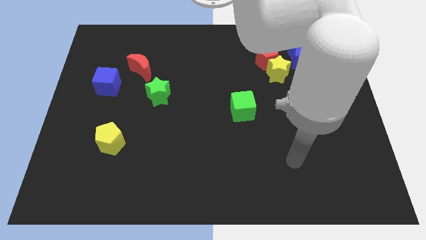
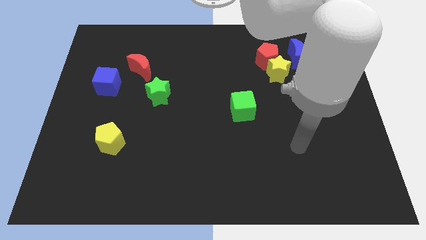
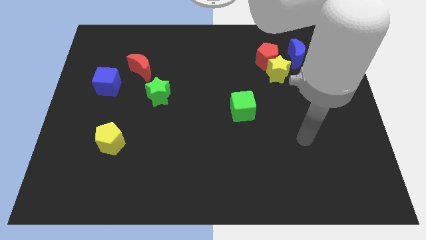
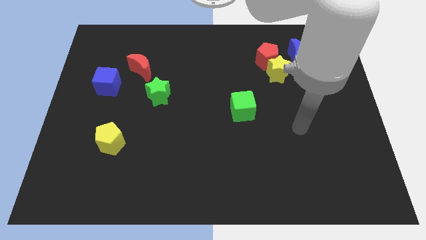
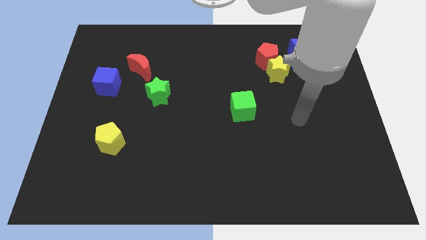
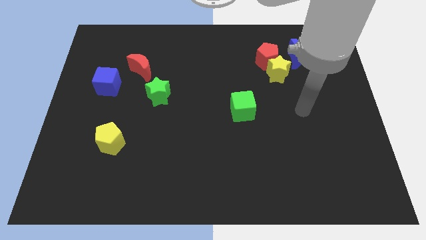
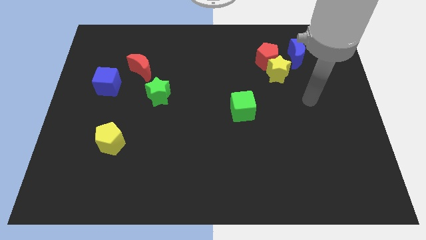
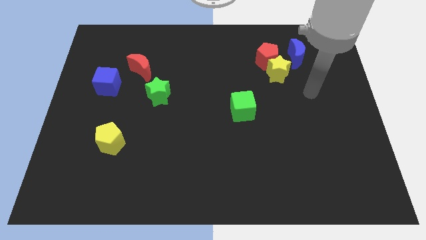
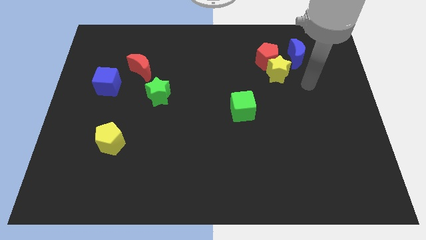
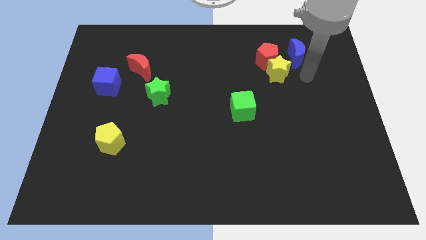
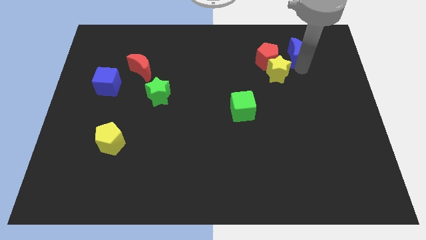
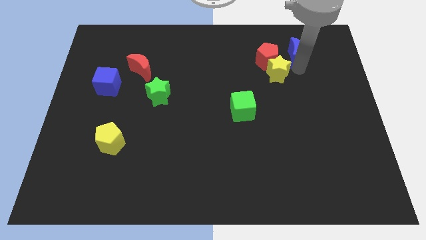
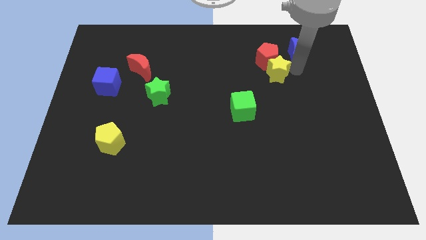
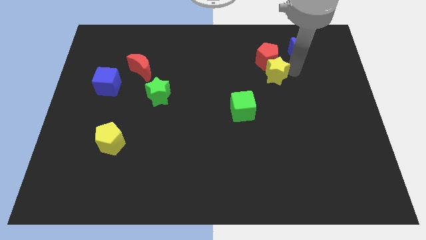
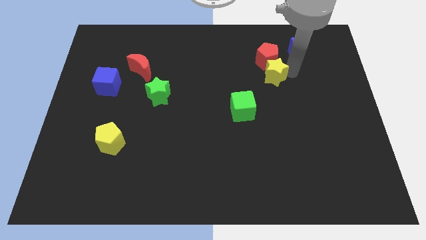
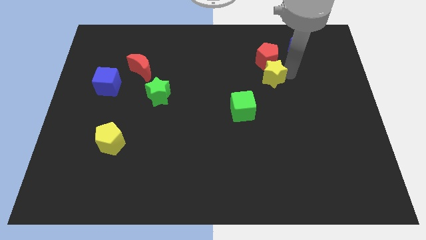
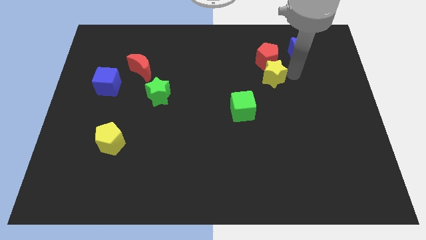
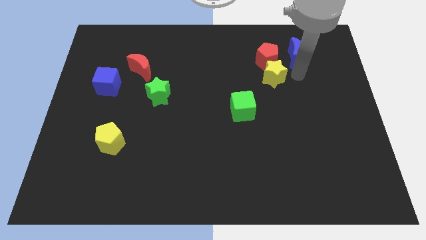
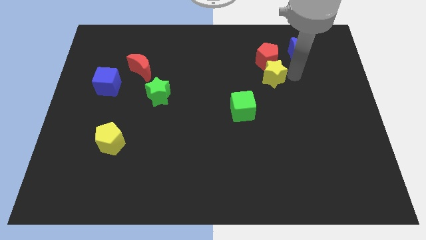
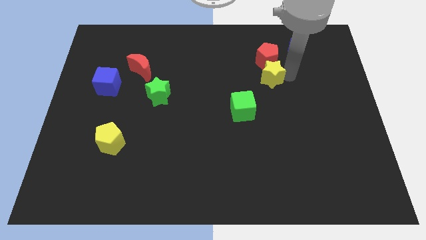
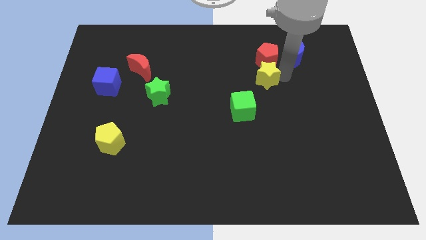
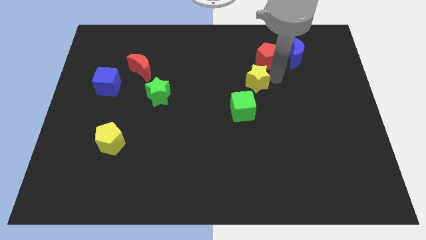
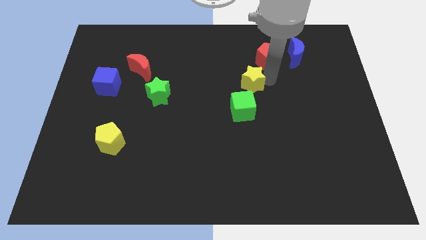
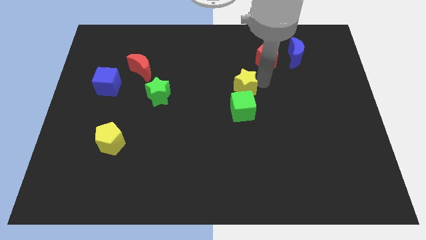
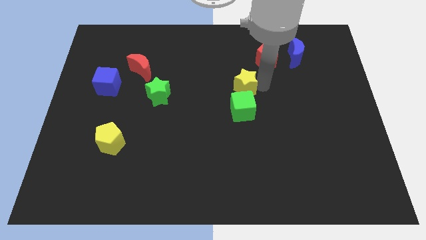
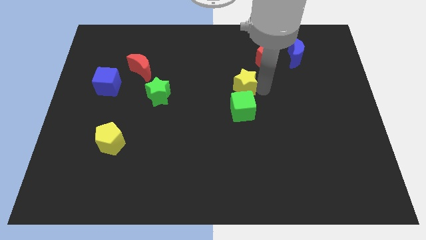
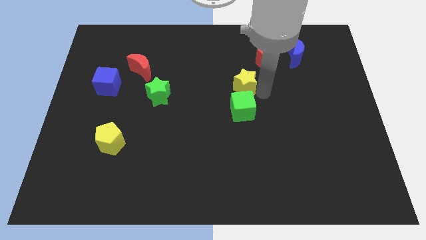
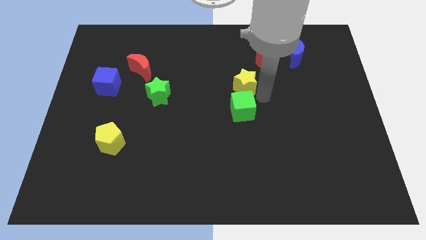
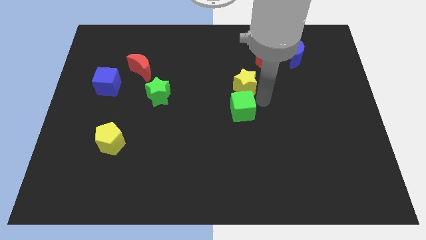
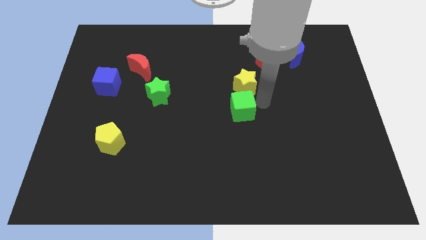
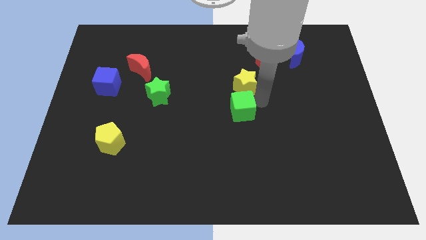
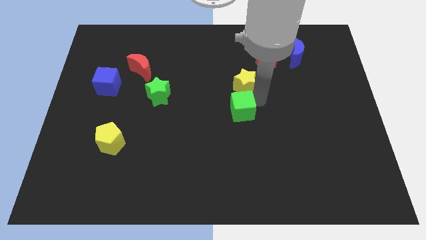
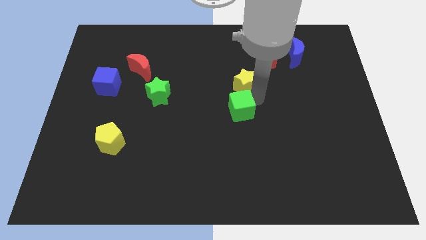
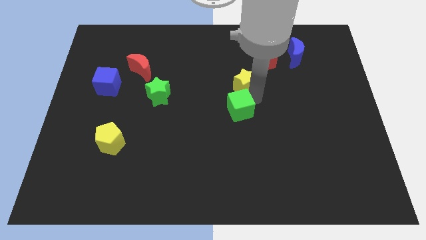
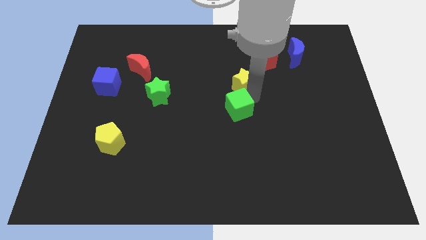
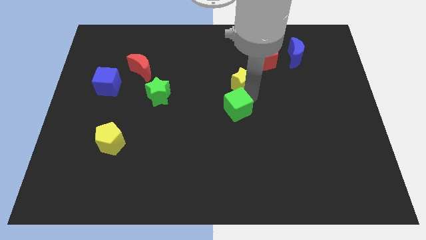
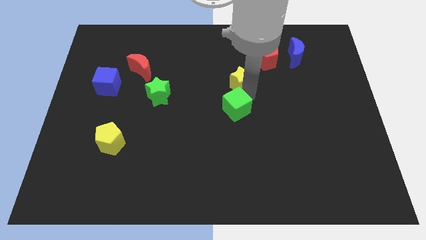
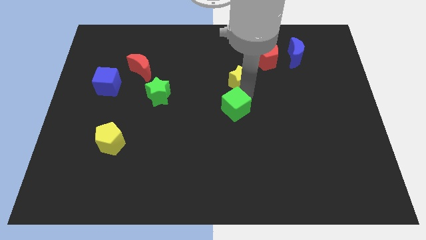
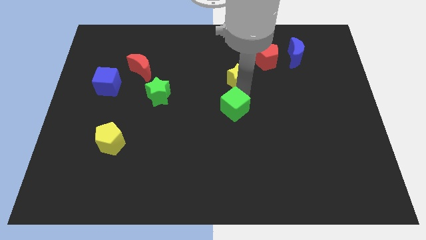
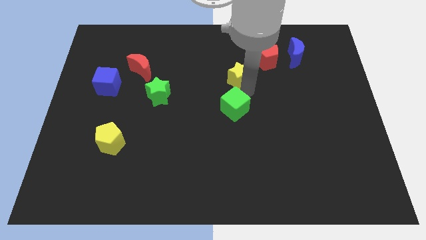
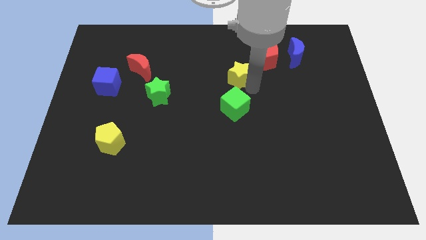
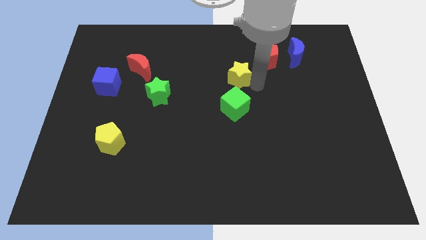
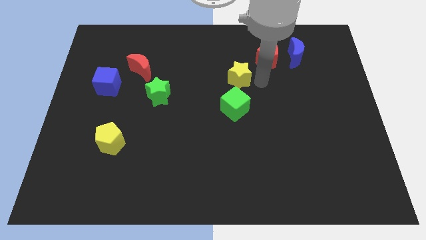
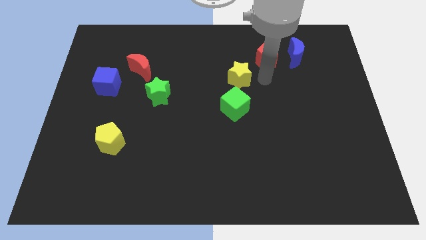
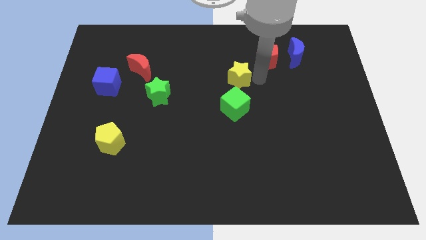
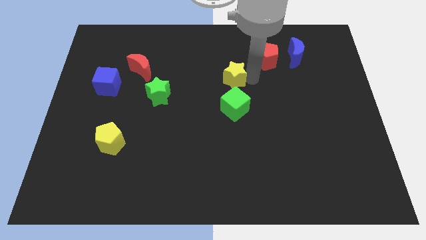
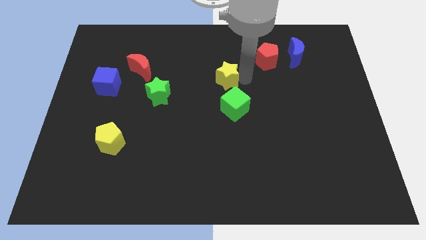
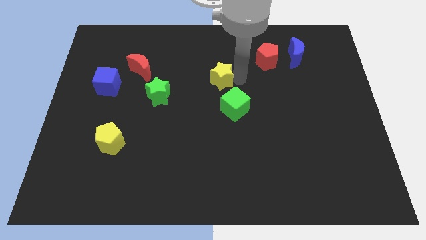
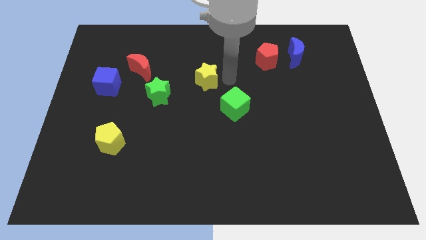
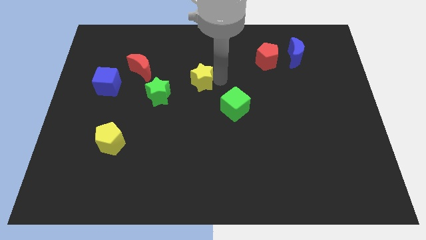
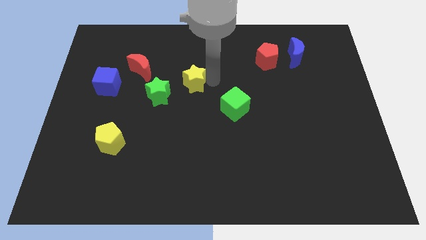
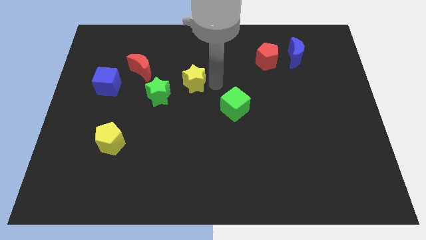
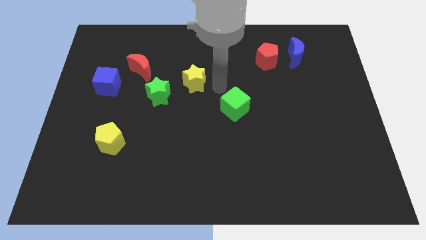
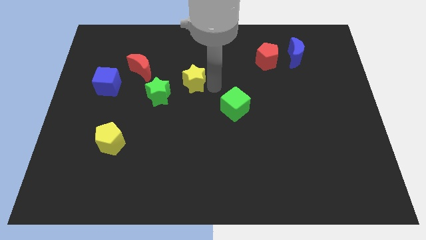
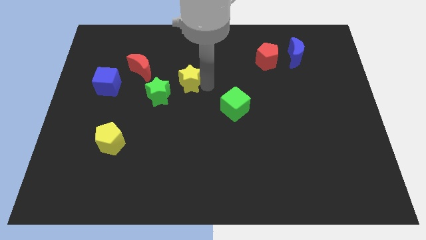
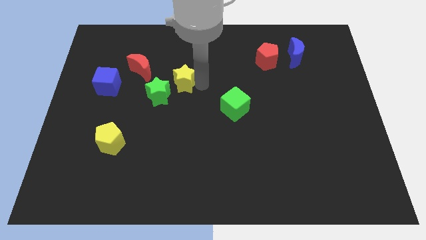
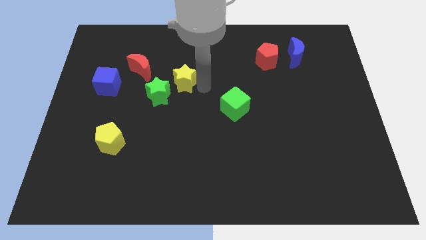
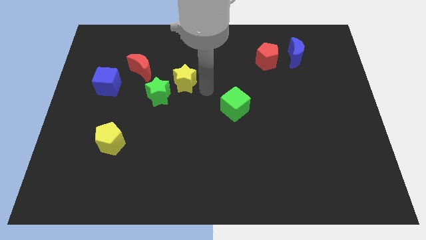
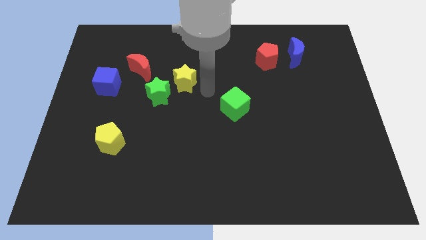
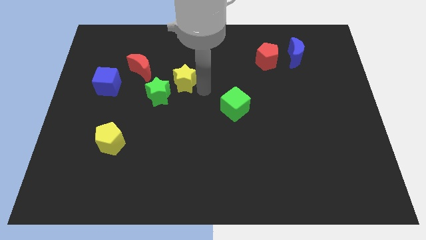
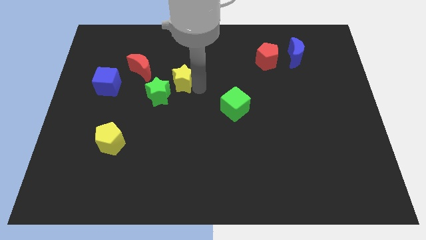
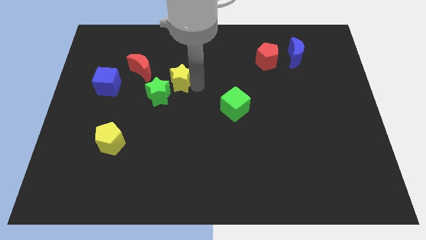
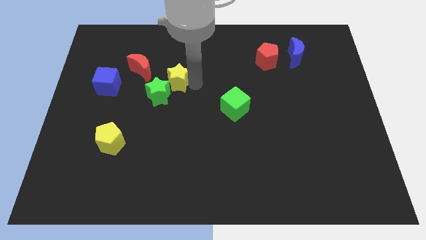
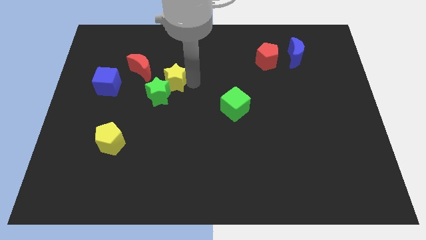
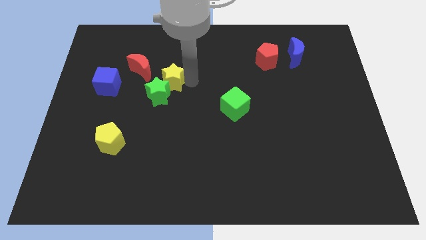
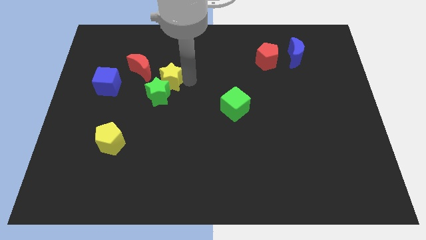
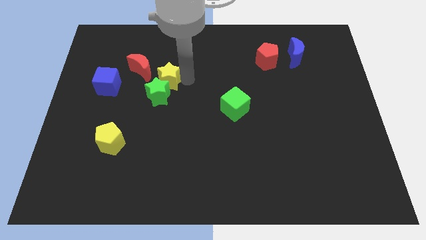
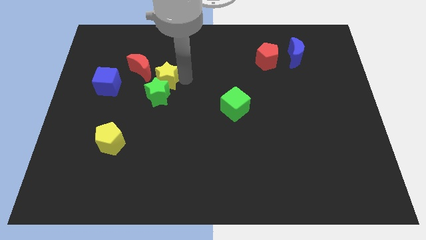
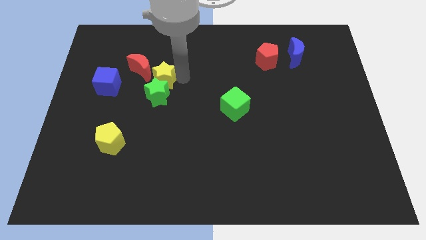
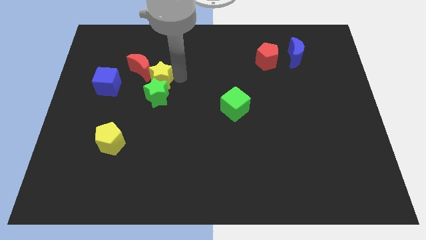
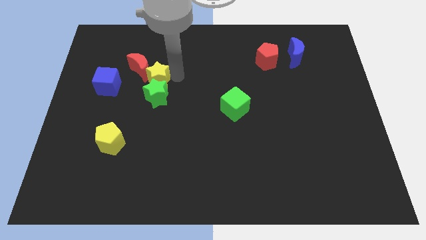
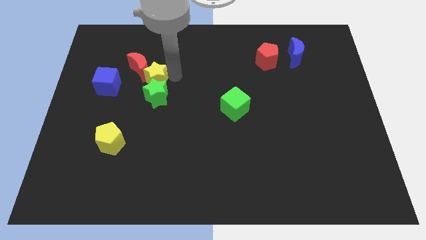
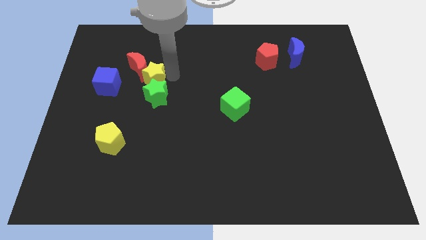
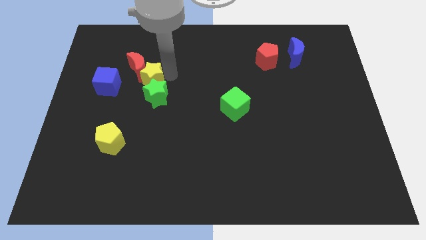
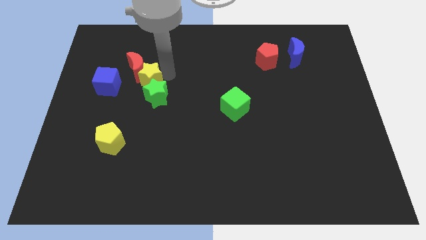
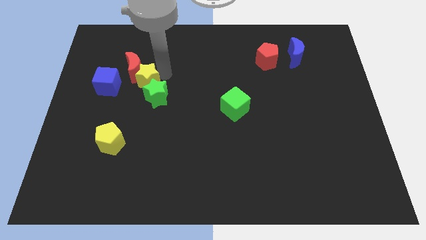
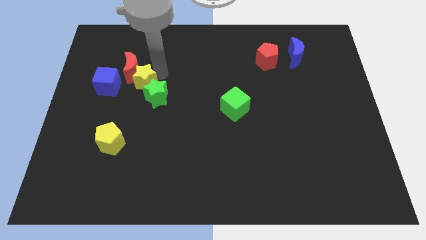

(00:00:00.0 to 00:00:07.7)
push the yellow star left of the green star
